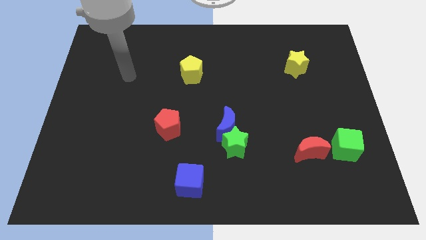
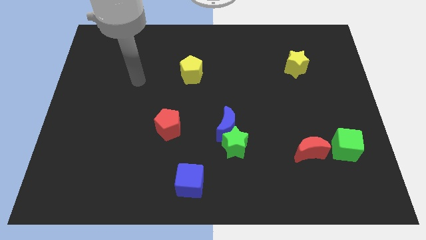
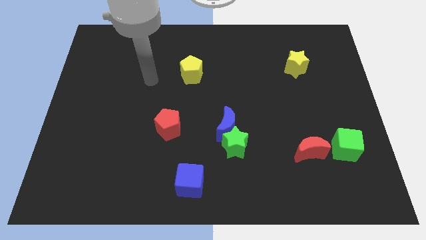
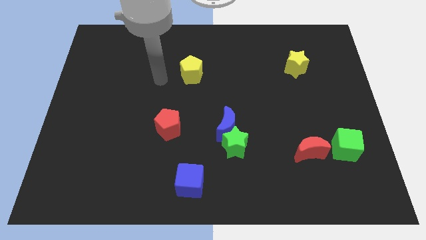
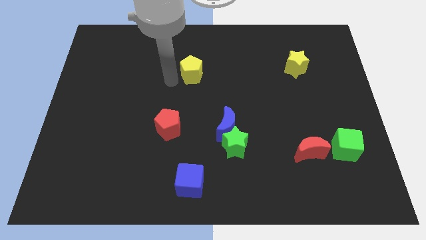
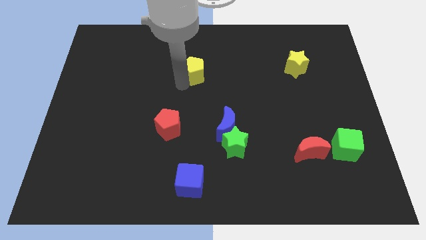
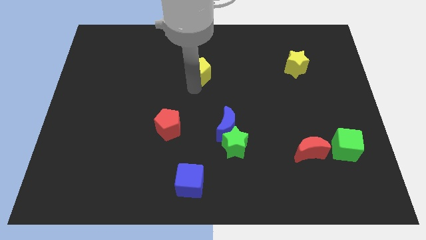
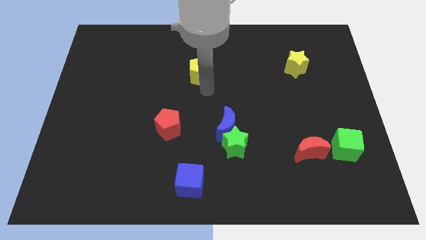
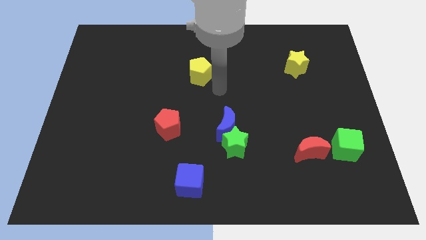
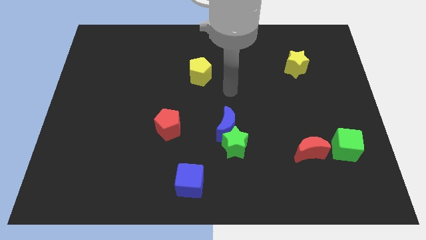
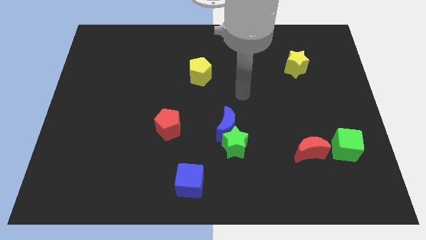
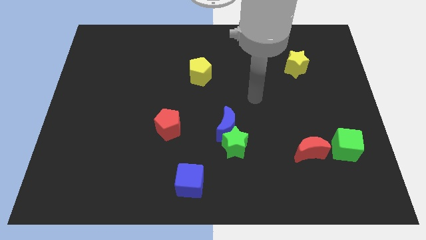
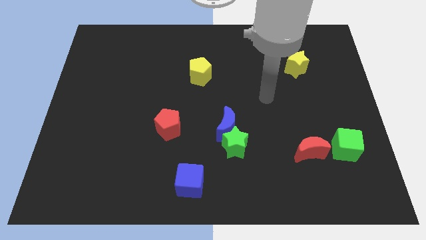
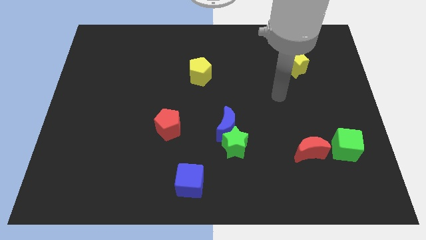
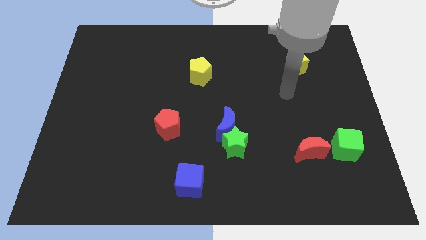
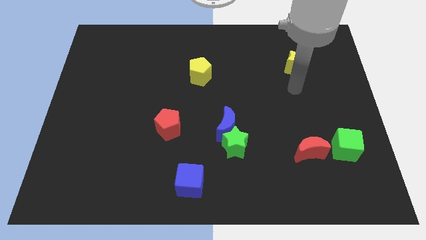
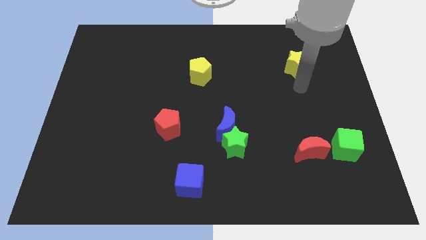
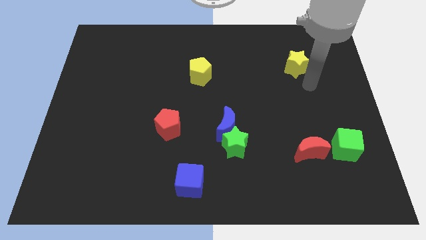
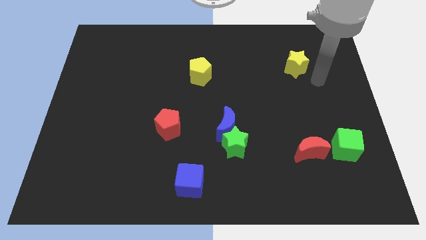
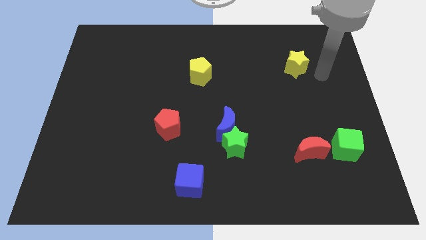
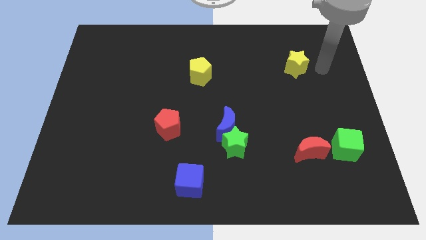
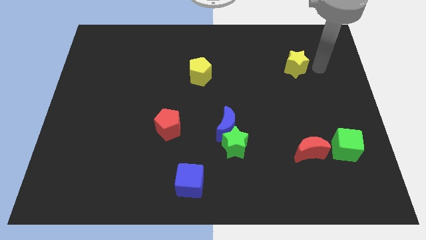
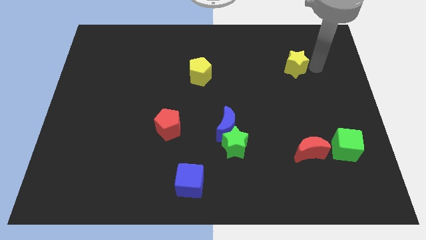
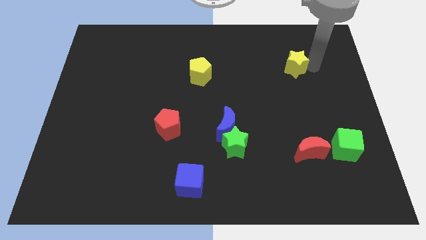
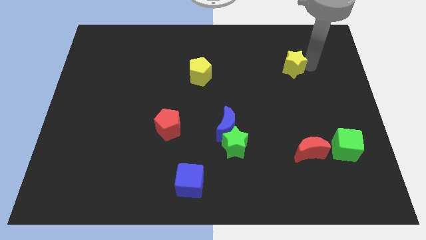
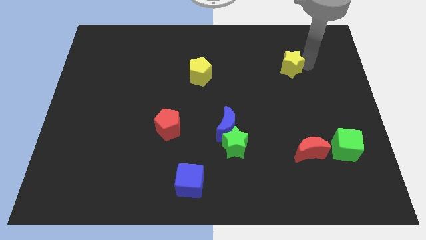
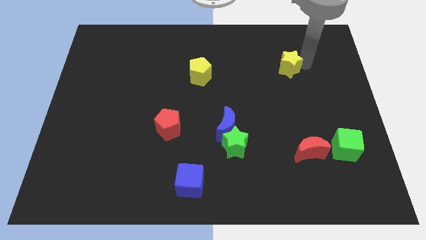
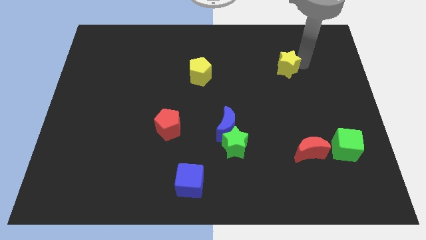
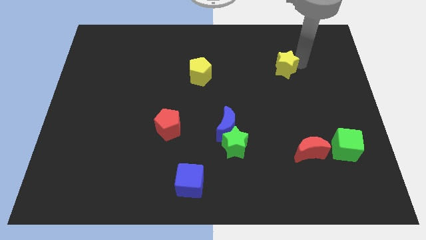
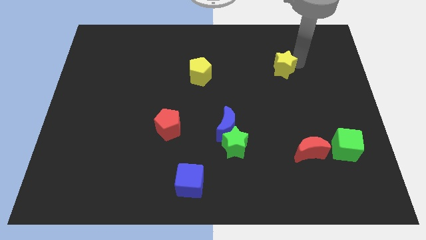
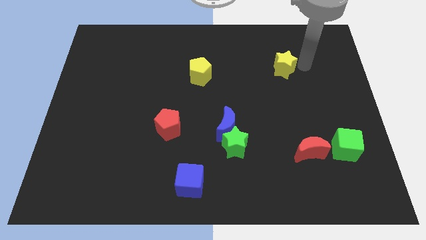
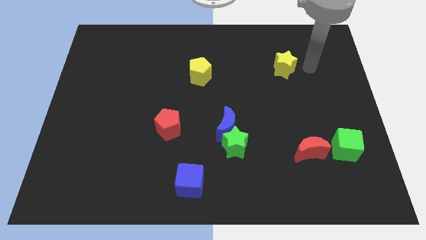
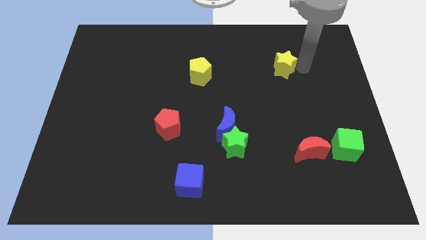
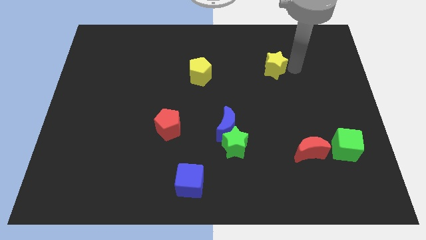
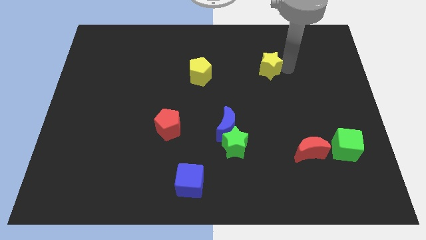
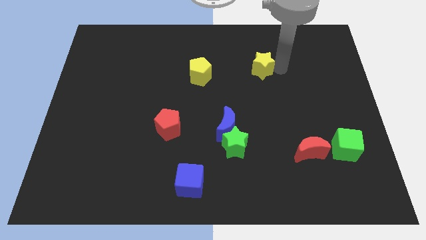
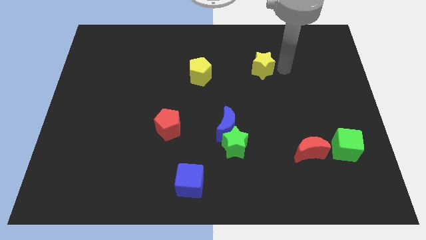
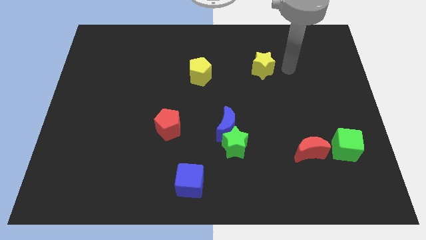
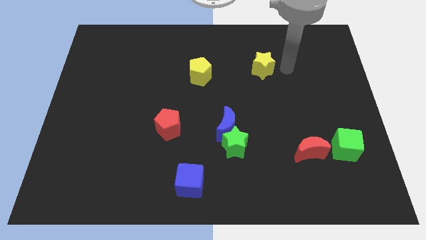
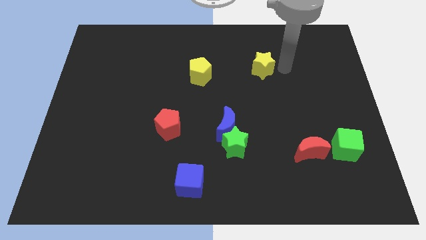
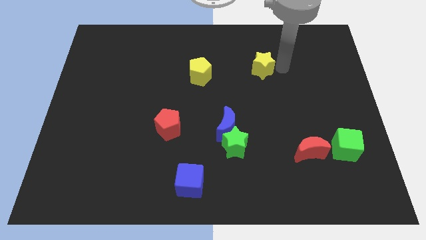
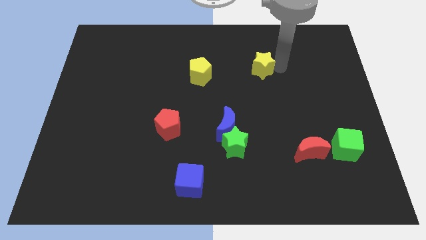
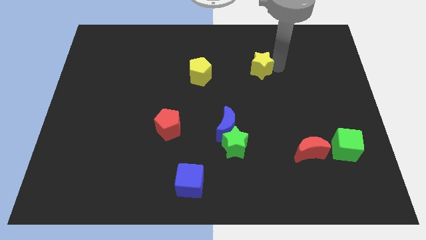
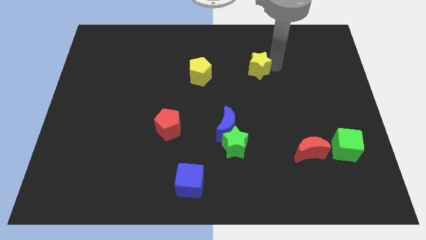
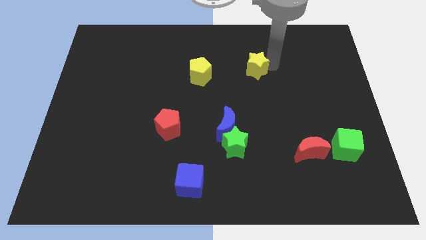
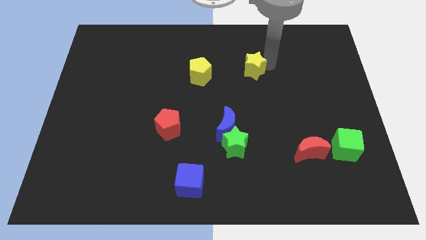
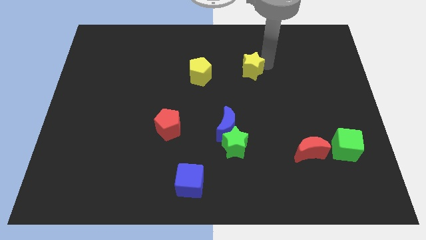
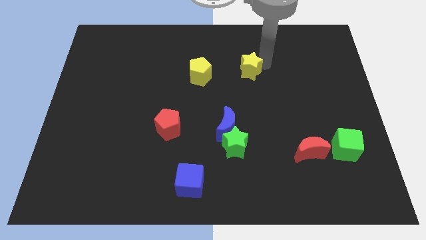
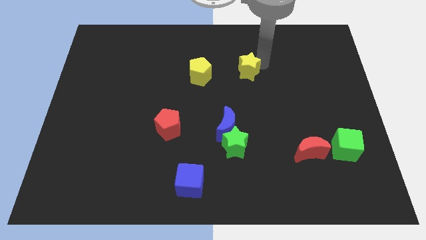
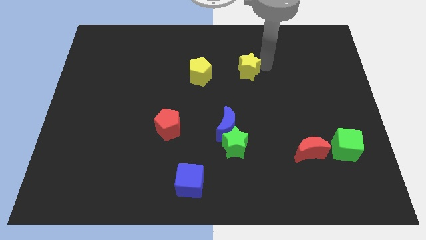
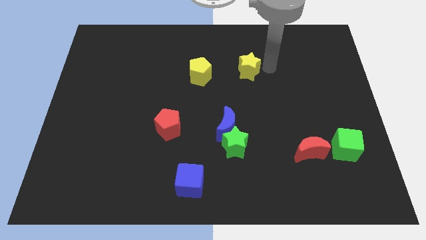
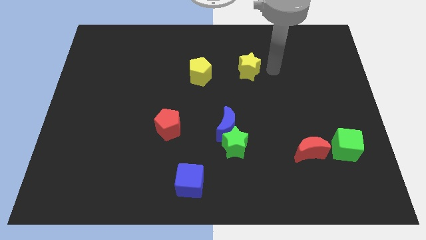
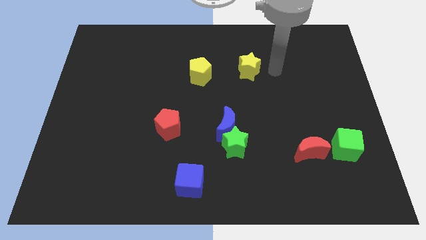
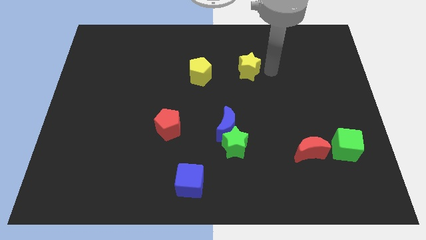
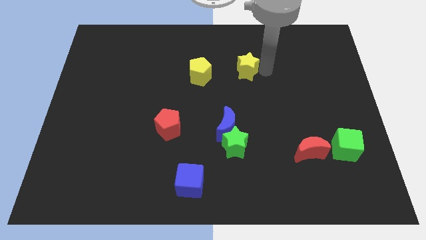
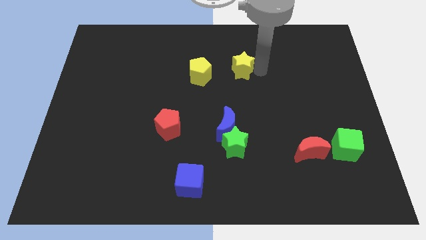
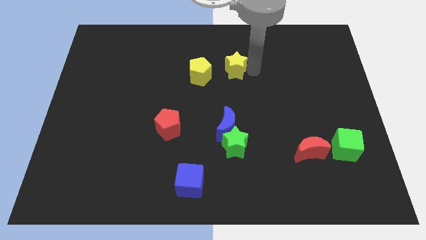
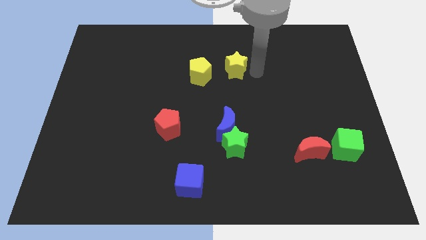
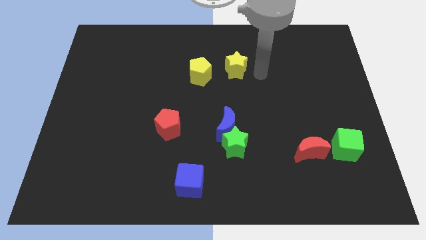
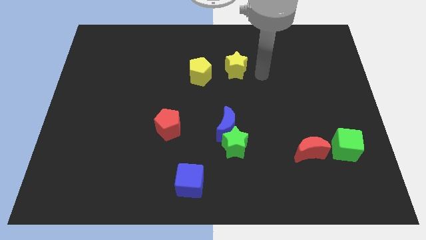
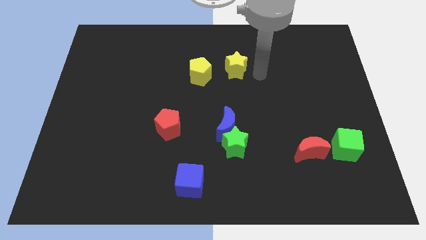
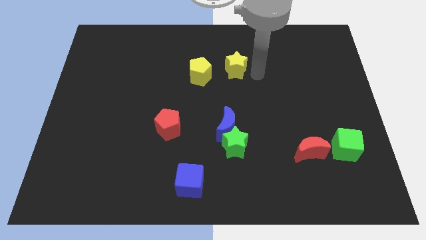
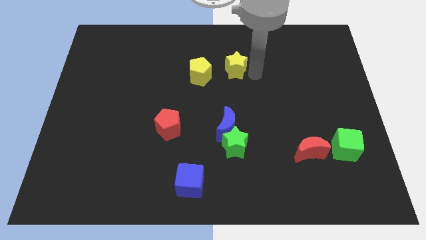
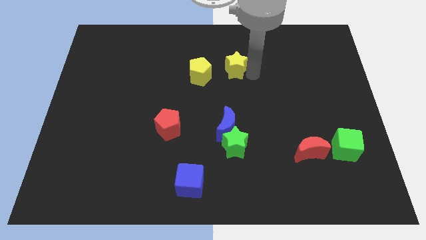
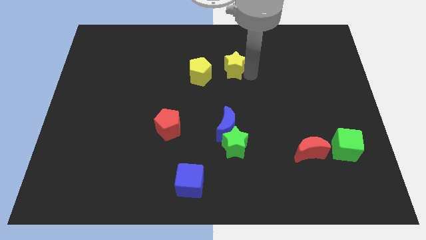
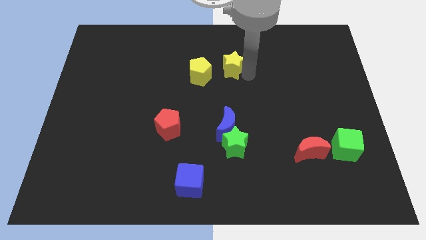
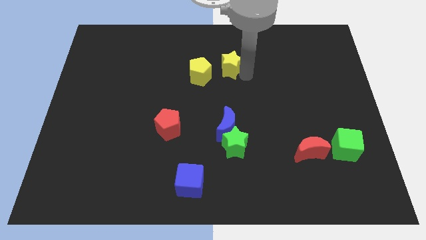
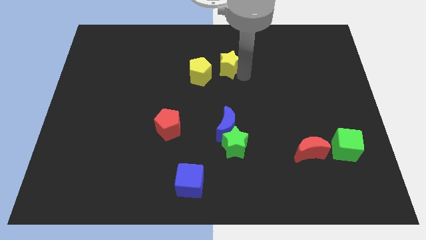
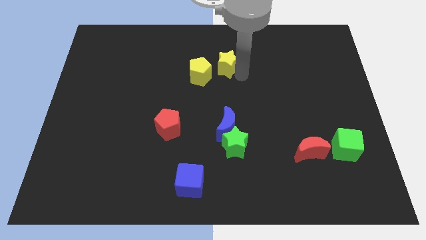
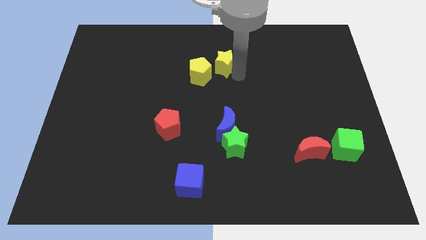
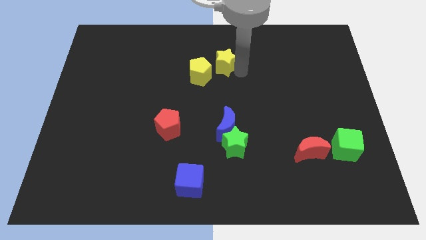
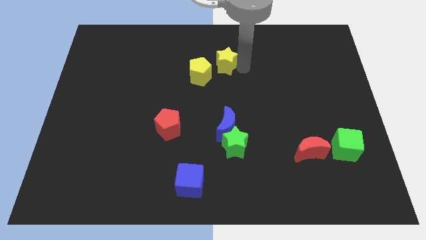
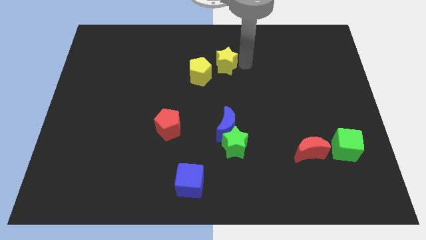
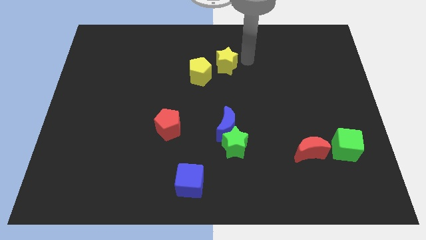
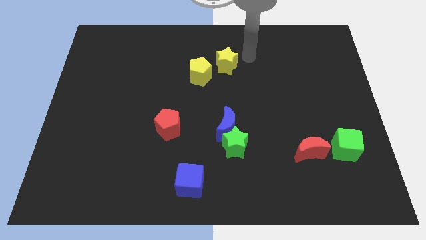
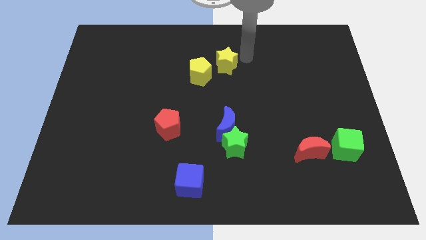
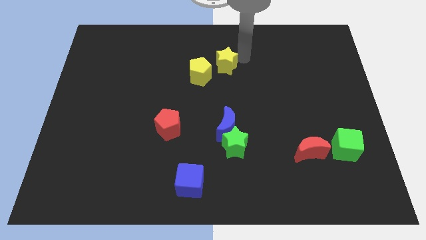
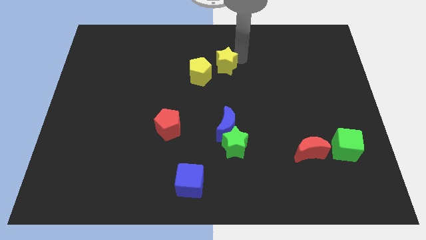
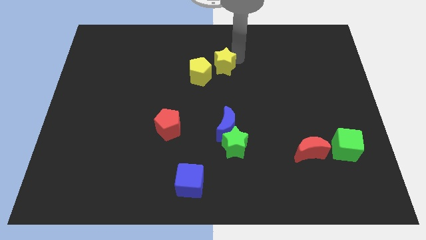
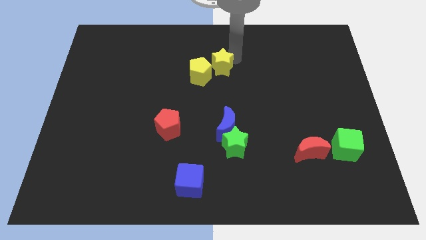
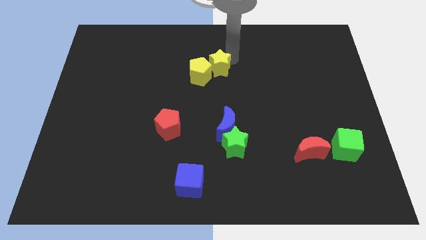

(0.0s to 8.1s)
push the yellow star close to the yellow pentagon

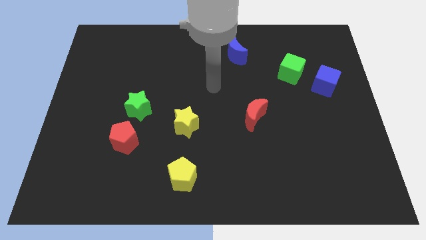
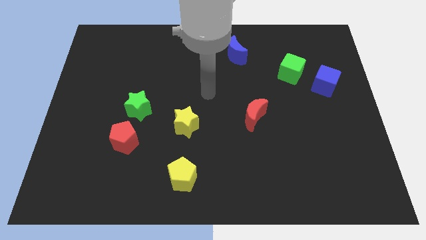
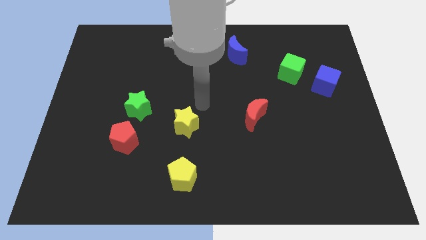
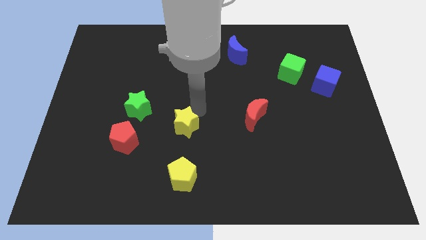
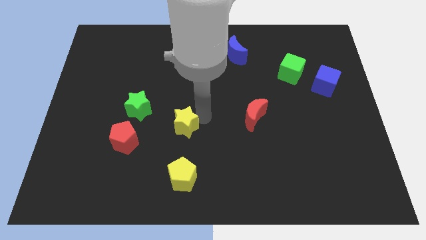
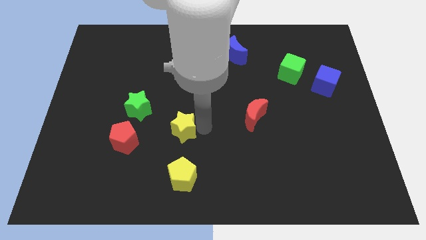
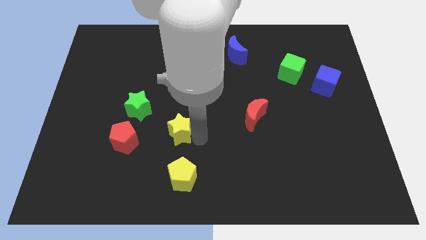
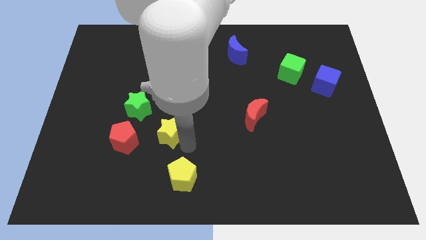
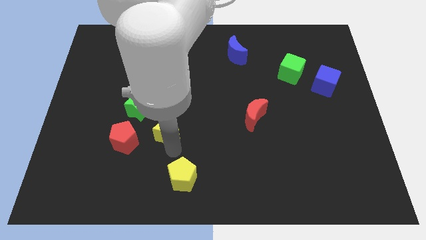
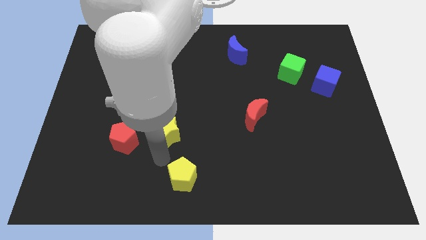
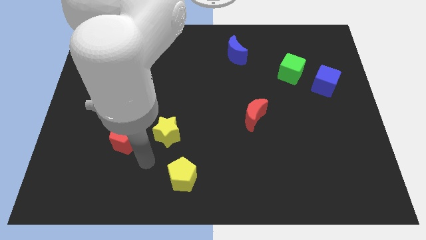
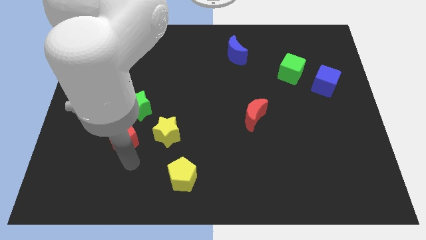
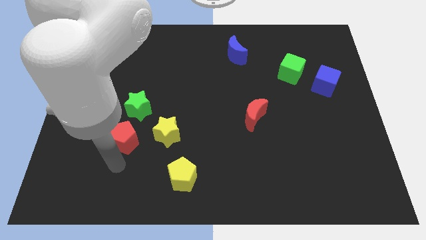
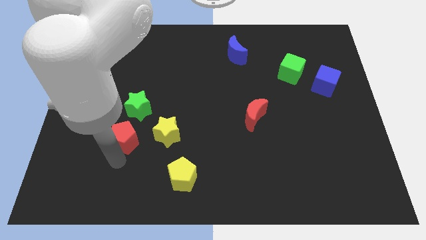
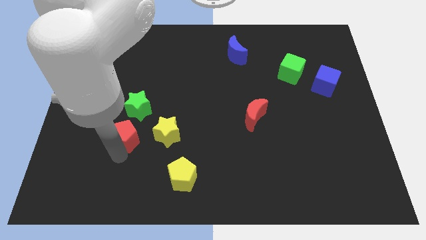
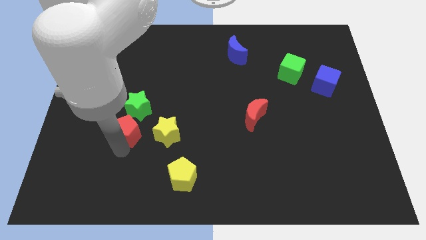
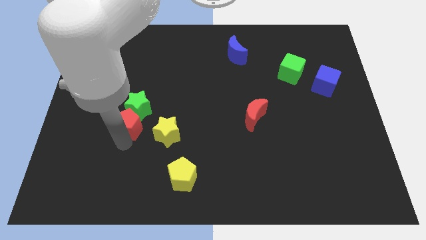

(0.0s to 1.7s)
put the red pentagon close to the green star
